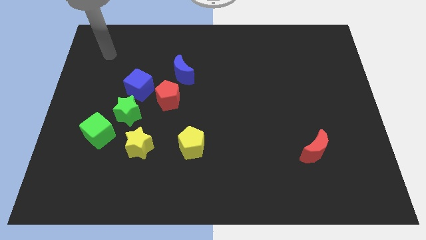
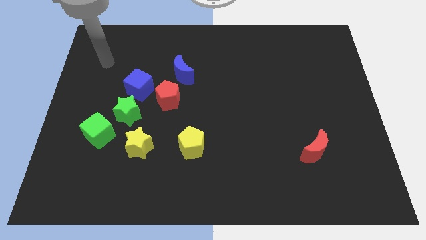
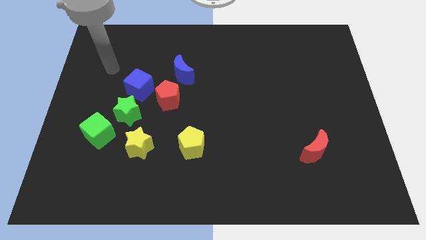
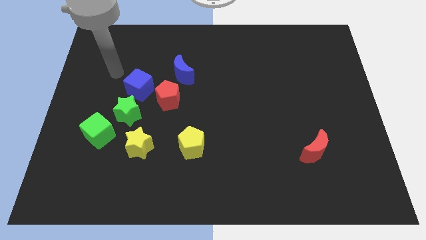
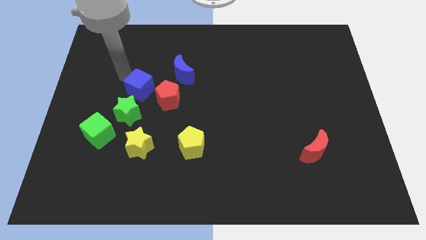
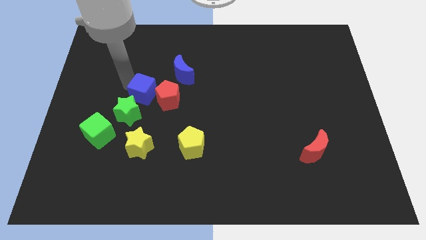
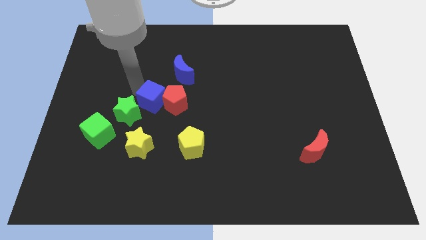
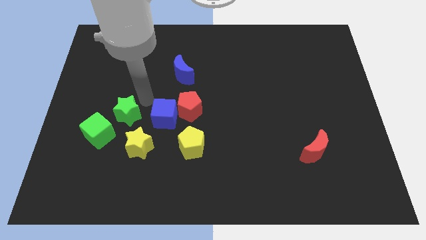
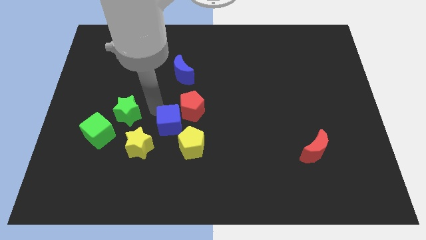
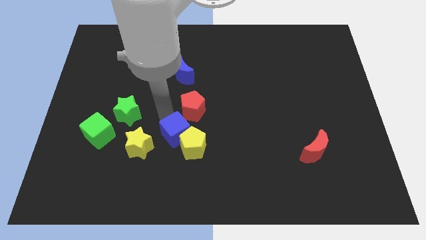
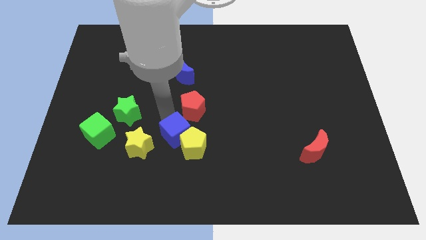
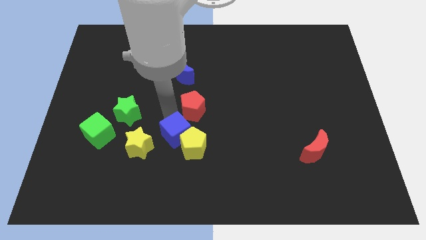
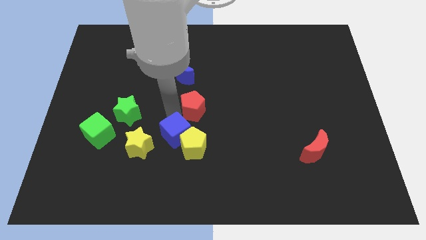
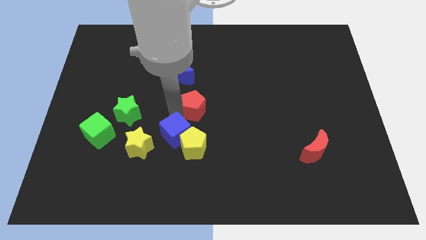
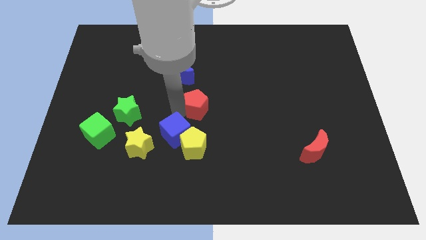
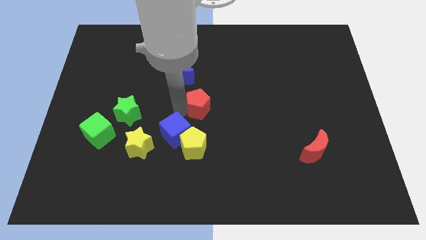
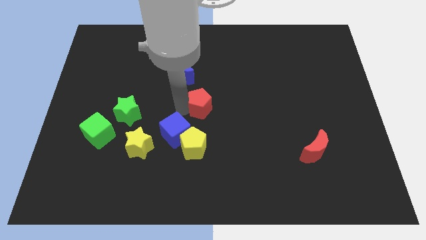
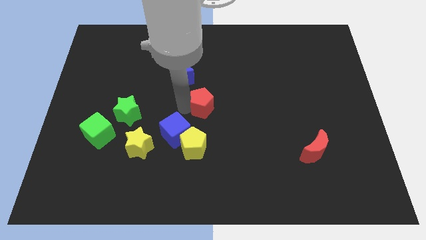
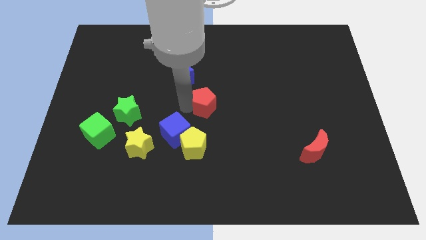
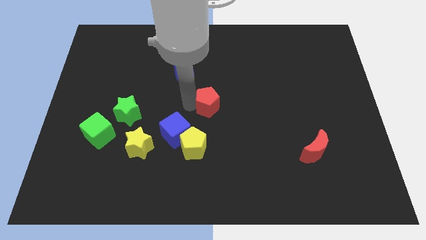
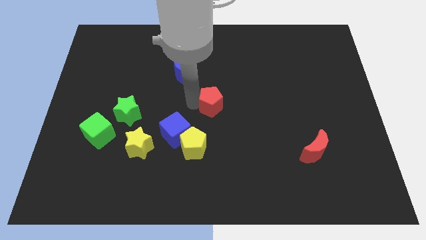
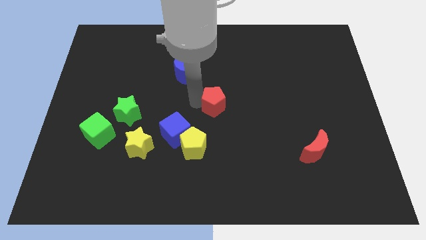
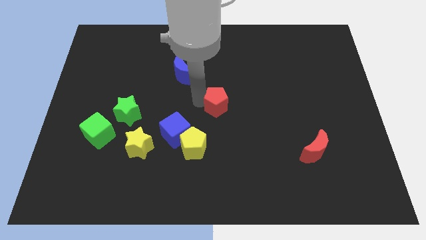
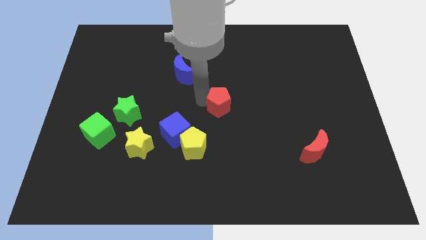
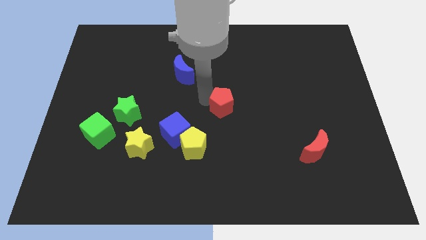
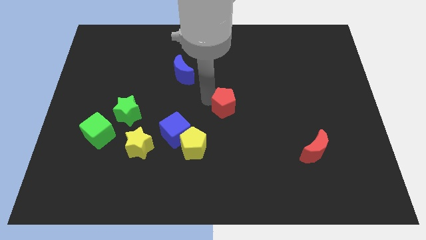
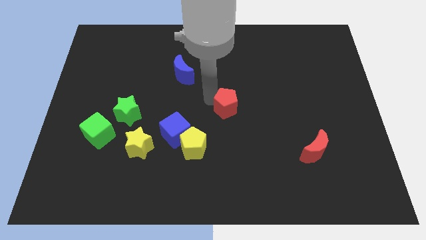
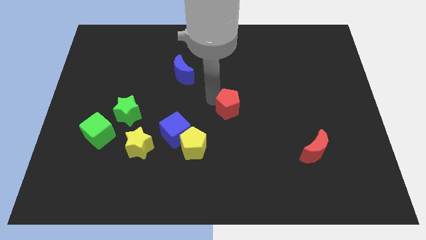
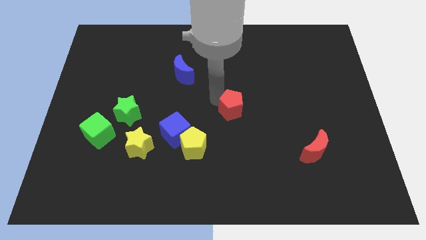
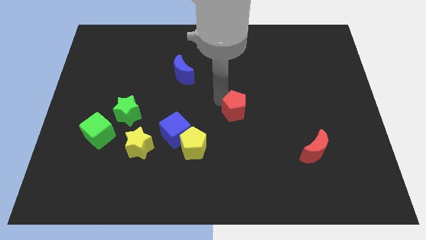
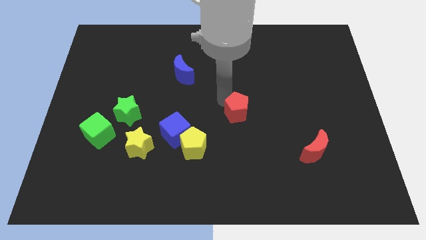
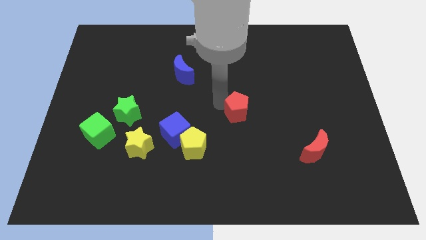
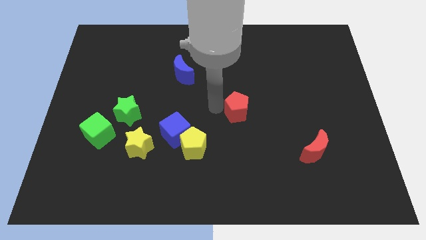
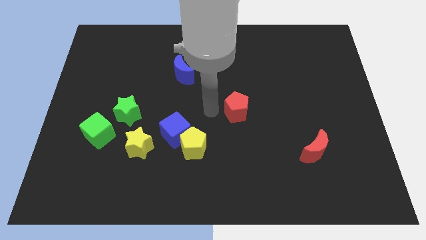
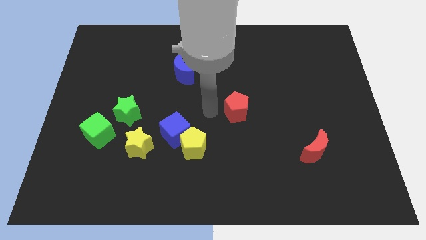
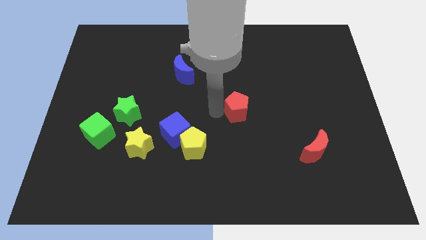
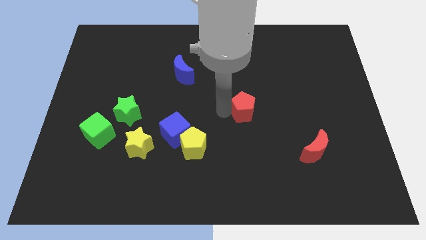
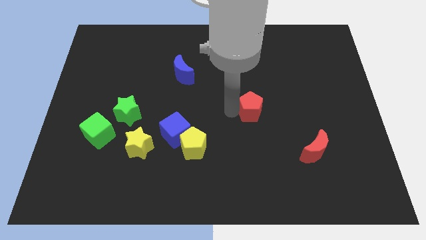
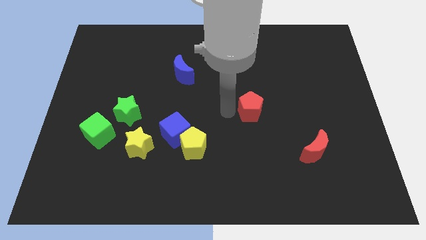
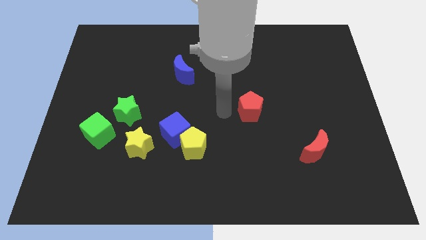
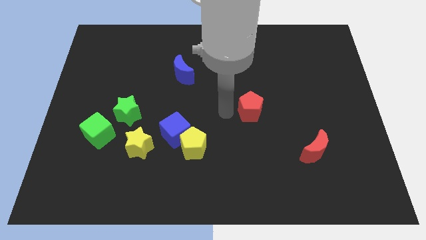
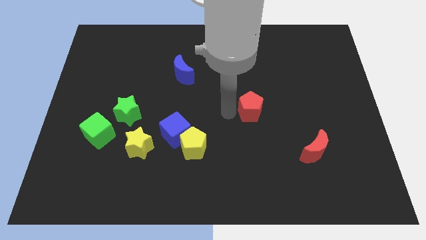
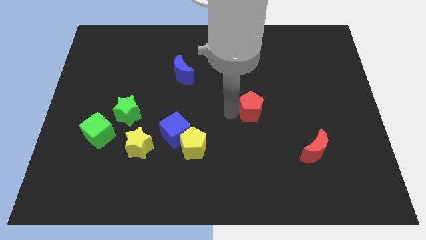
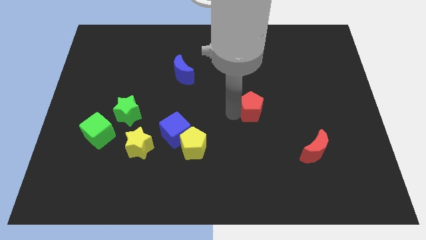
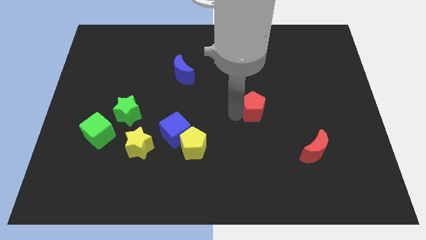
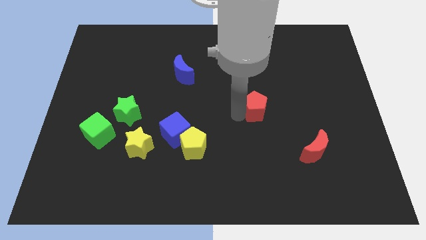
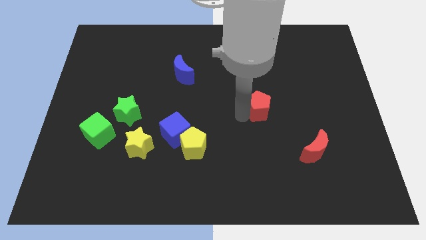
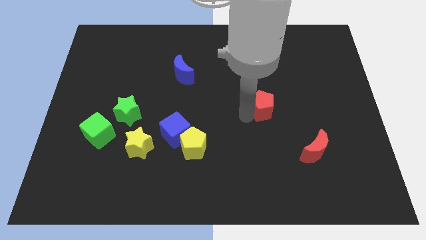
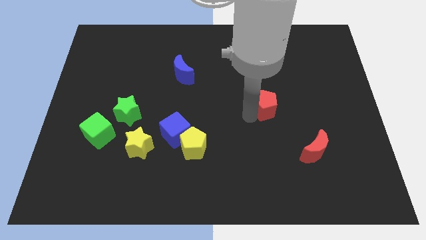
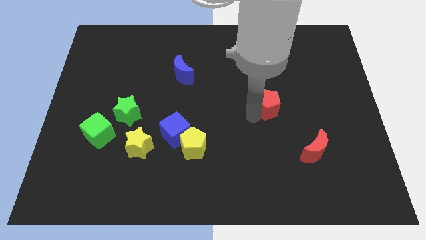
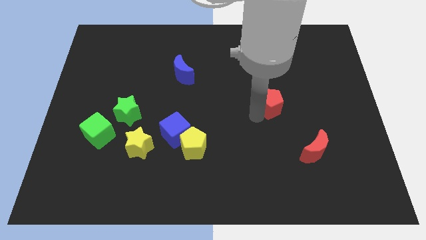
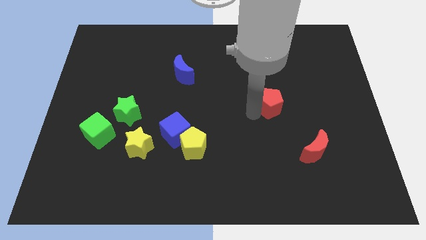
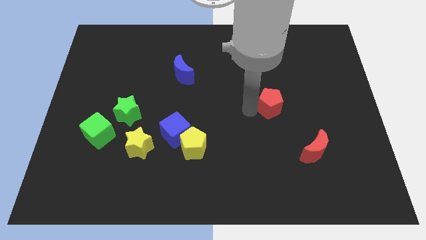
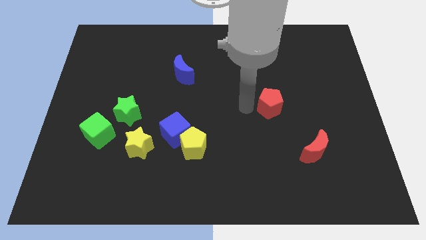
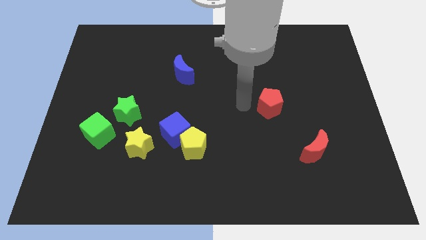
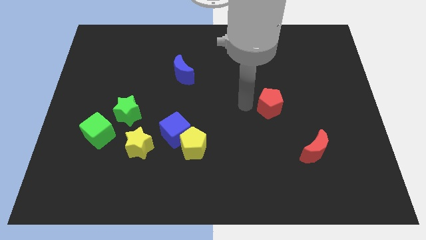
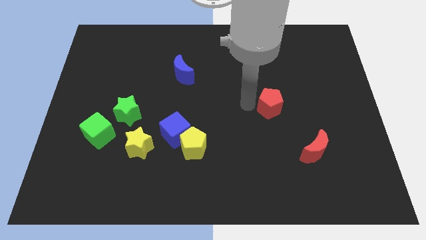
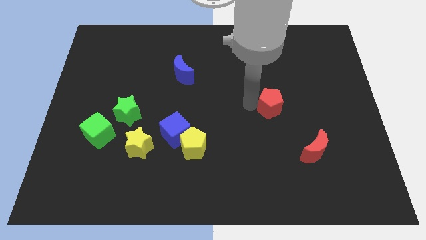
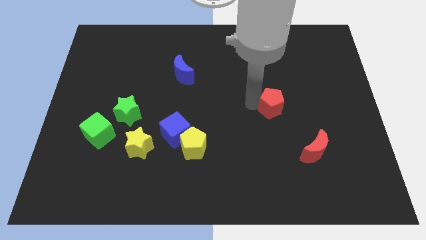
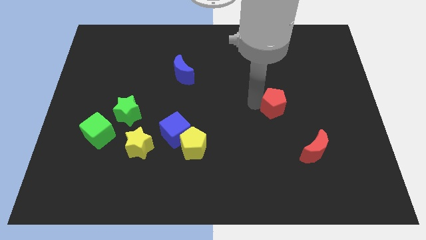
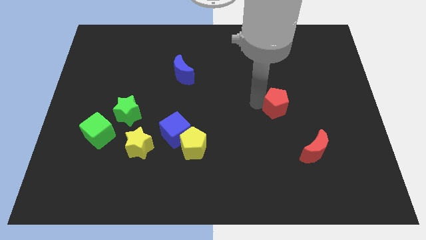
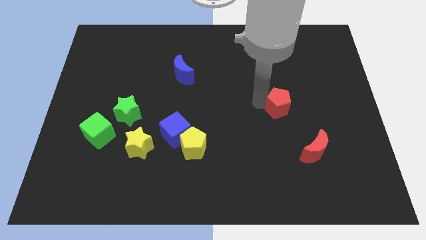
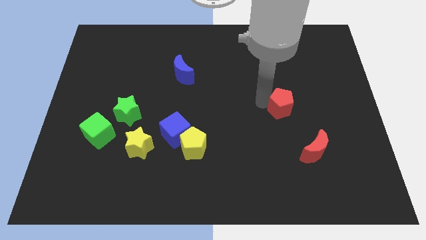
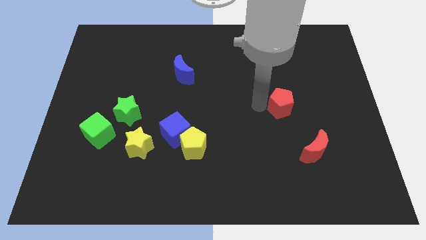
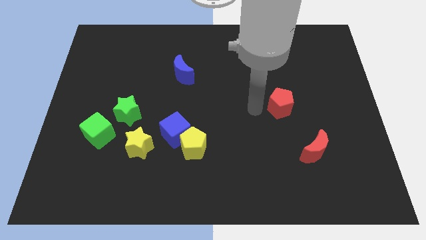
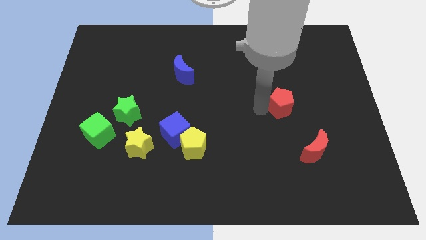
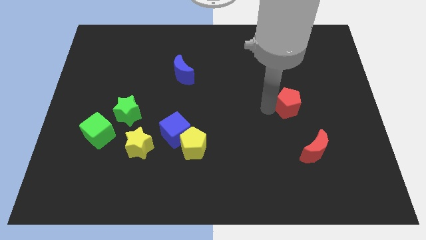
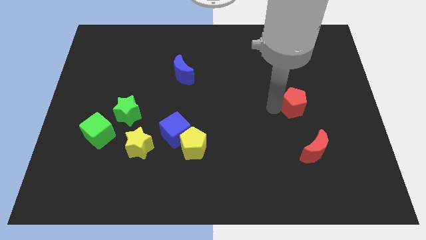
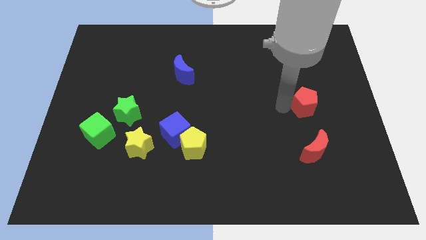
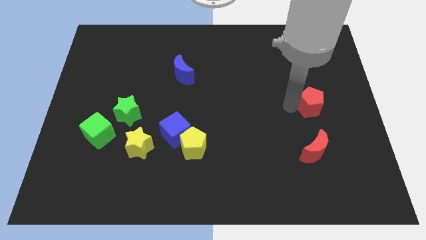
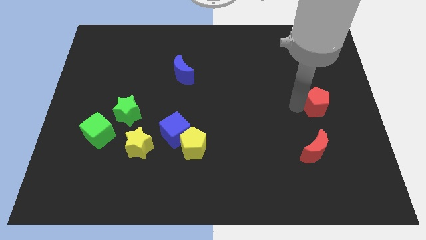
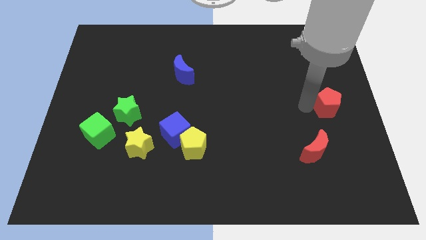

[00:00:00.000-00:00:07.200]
push the red pentagon to the center right

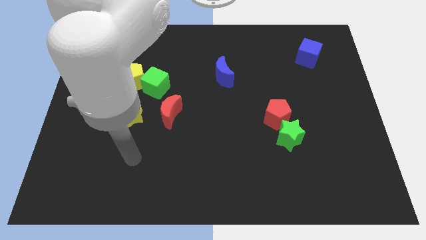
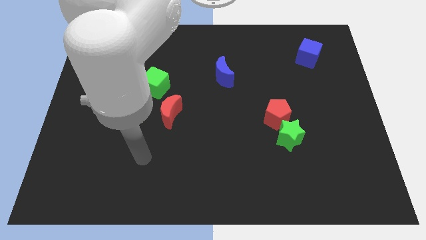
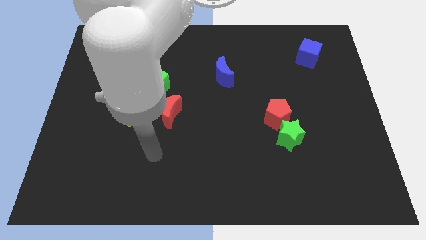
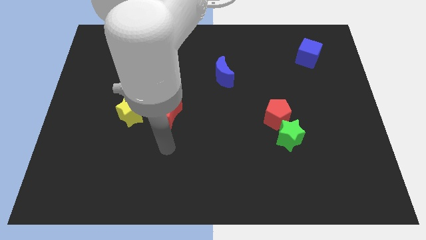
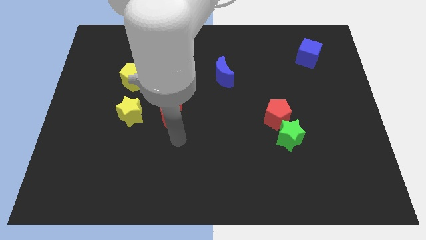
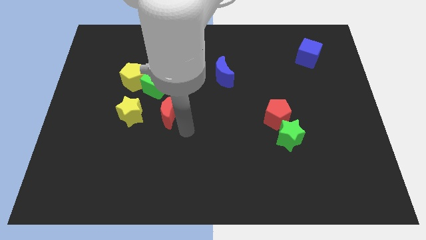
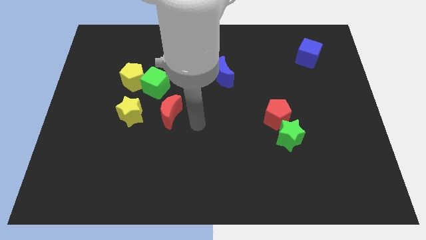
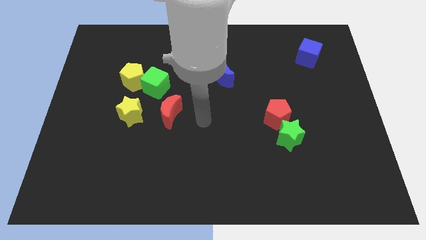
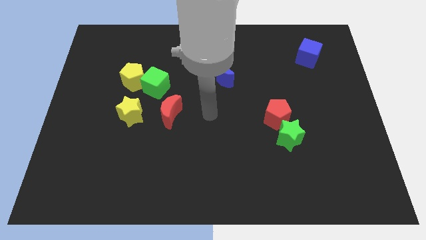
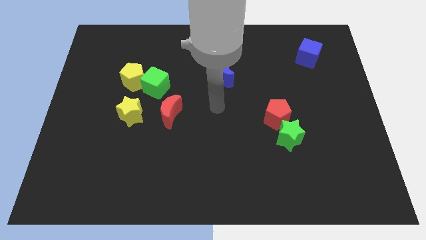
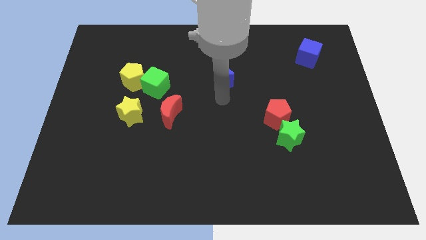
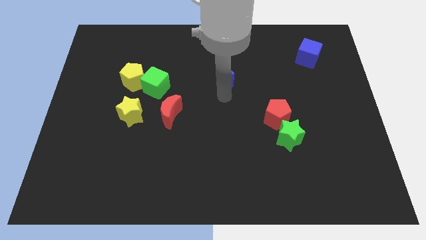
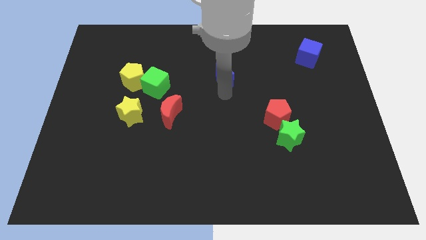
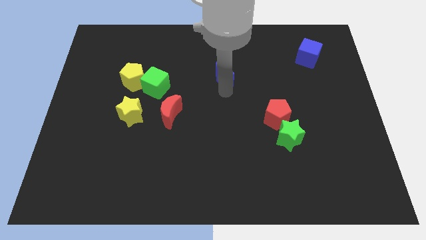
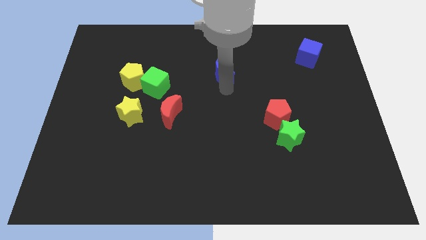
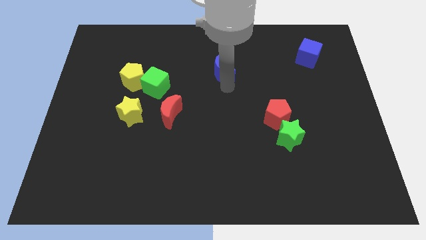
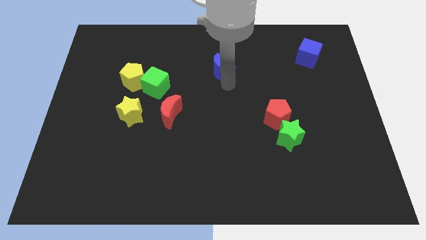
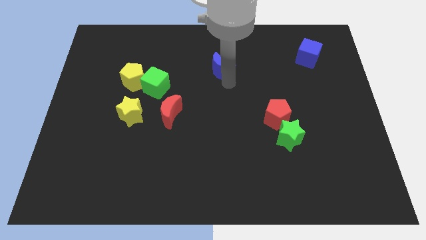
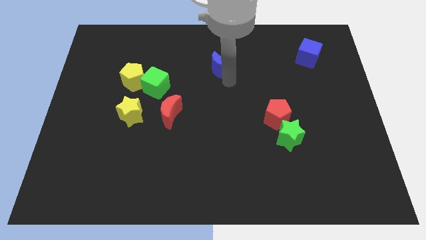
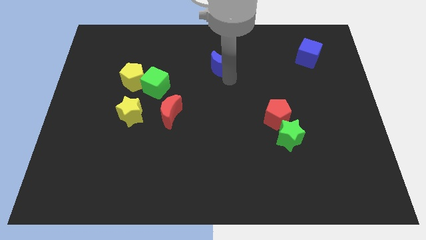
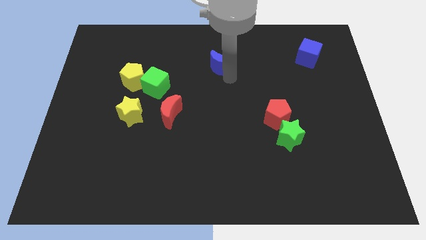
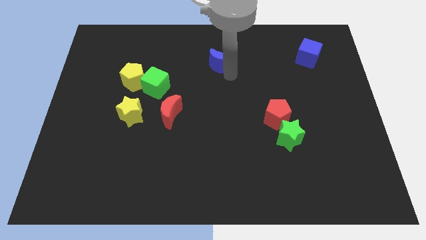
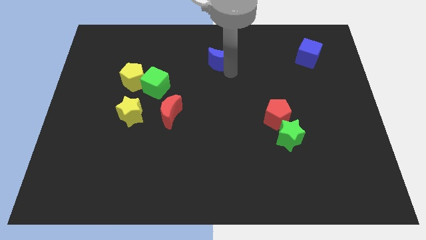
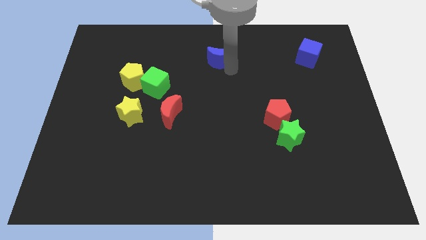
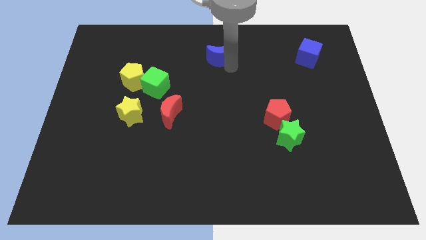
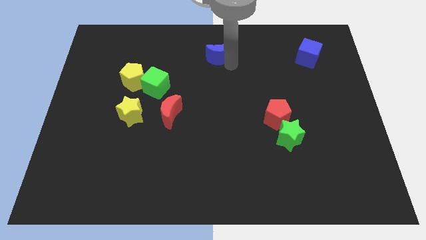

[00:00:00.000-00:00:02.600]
move the blue moon to the top
